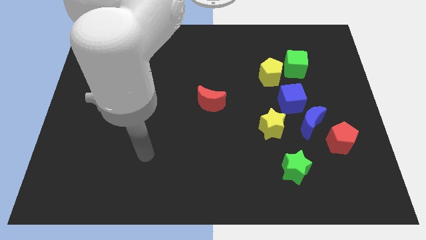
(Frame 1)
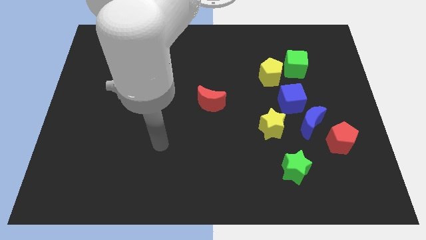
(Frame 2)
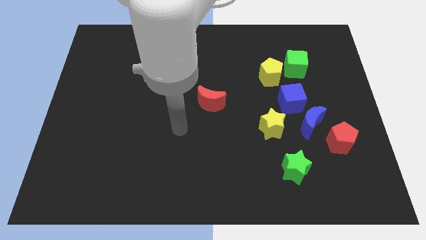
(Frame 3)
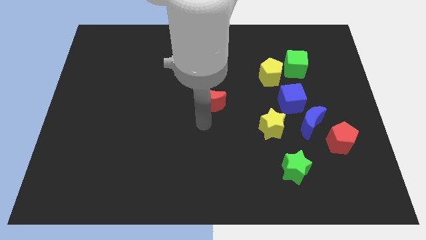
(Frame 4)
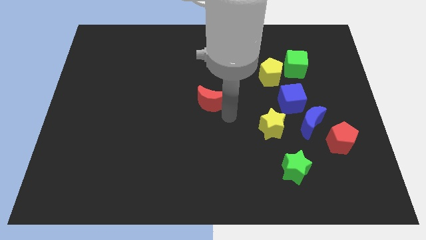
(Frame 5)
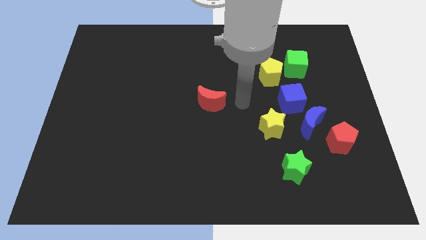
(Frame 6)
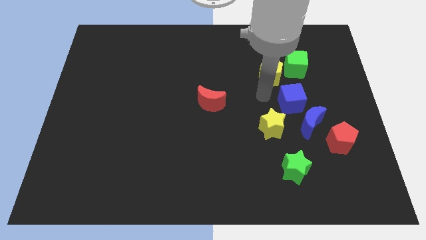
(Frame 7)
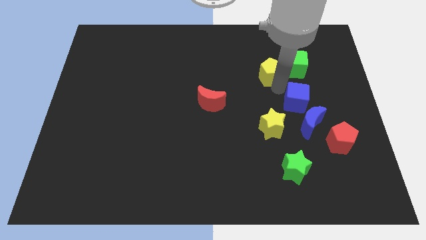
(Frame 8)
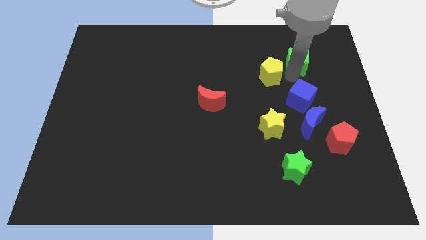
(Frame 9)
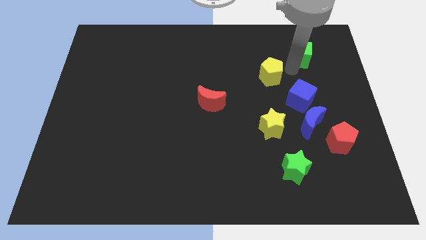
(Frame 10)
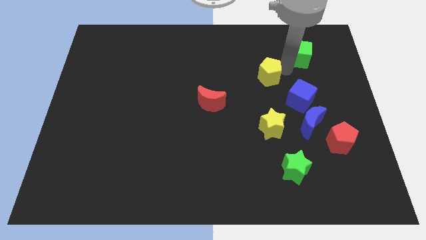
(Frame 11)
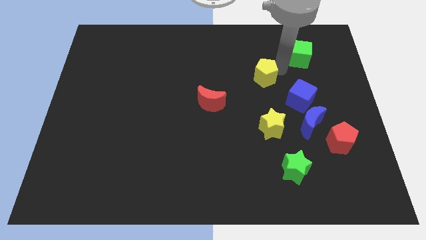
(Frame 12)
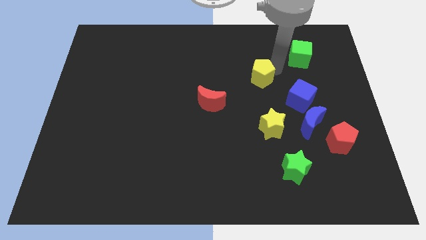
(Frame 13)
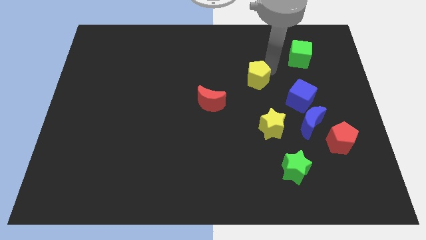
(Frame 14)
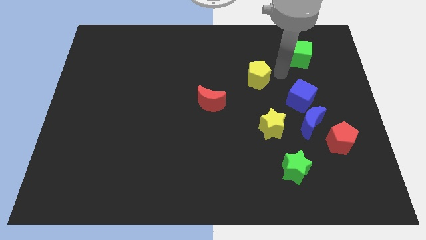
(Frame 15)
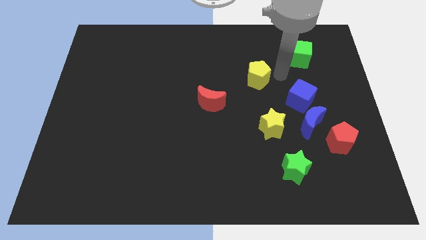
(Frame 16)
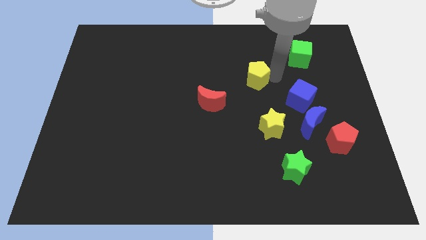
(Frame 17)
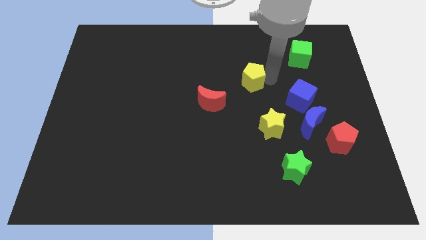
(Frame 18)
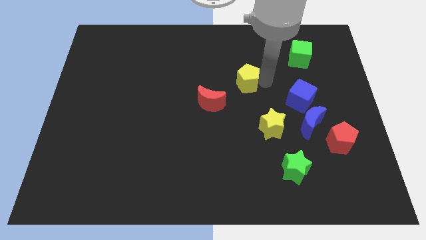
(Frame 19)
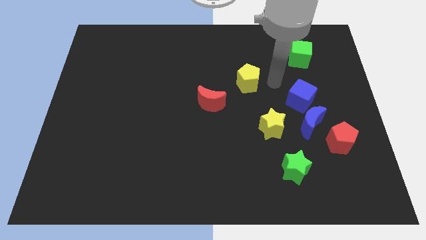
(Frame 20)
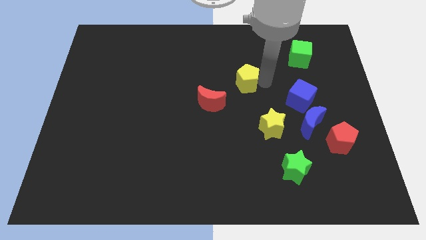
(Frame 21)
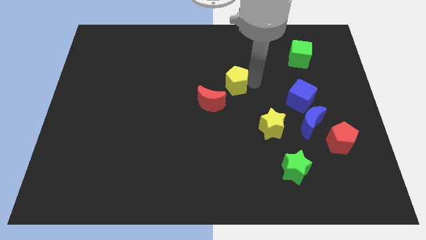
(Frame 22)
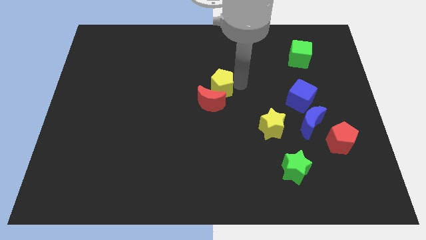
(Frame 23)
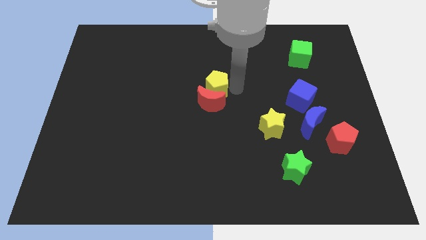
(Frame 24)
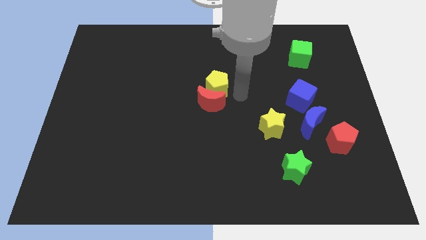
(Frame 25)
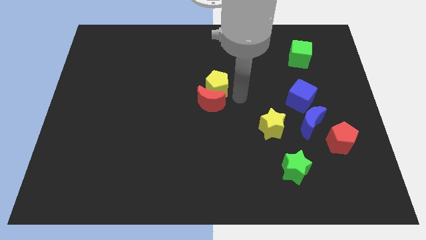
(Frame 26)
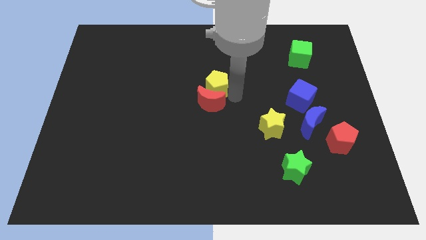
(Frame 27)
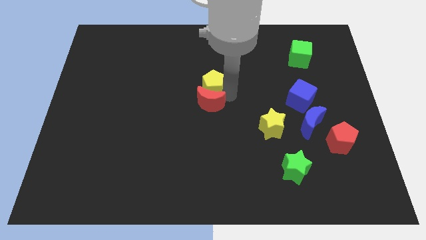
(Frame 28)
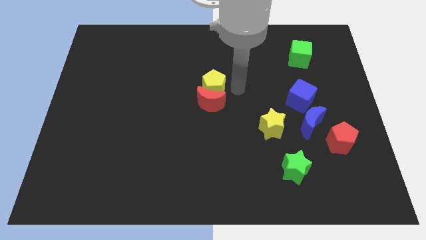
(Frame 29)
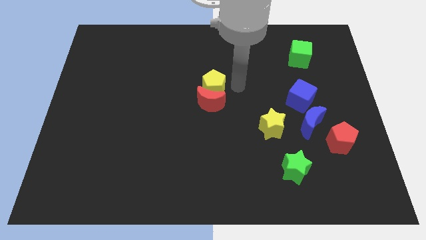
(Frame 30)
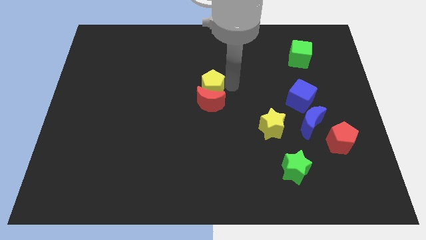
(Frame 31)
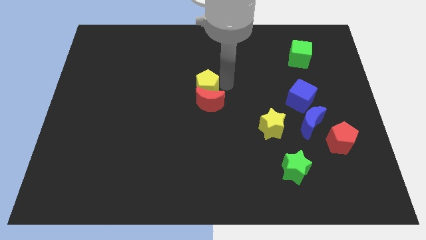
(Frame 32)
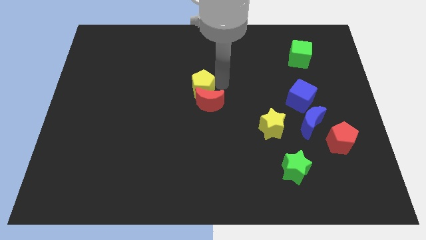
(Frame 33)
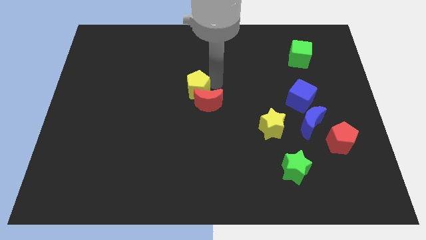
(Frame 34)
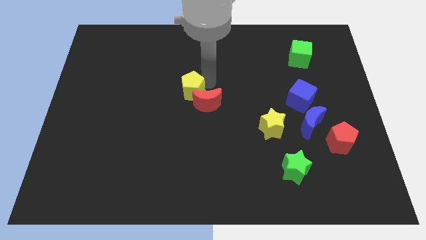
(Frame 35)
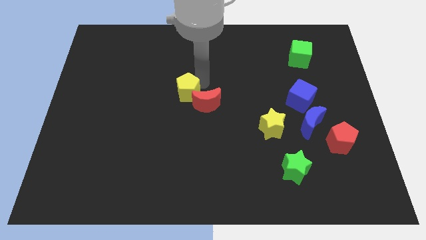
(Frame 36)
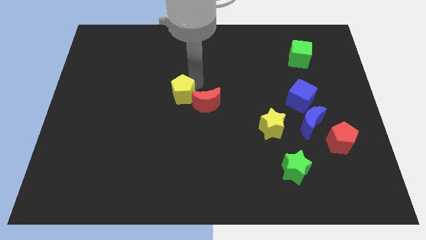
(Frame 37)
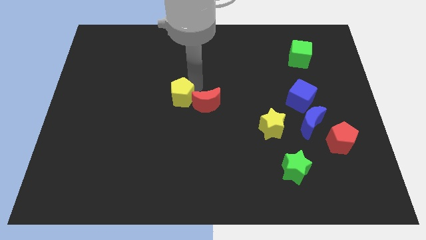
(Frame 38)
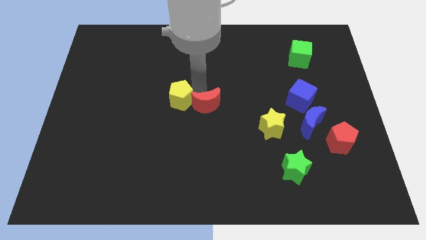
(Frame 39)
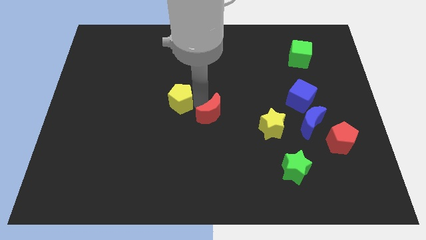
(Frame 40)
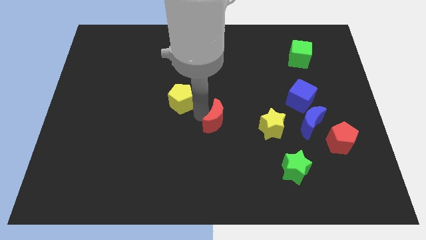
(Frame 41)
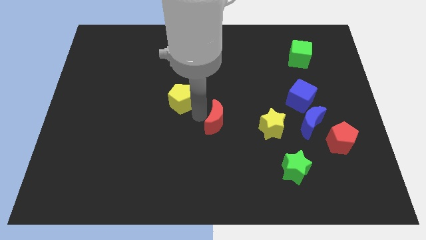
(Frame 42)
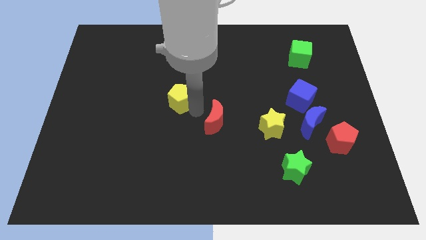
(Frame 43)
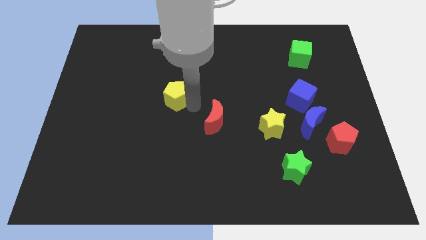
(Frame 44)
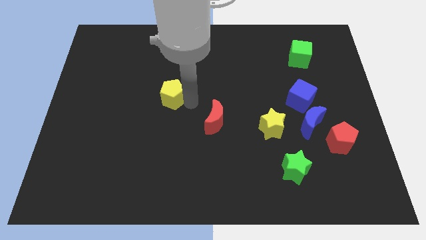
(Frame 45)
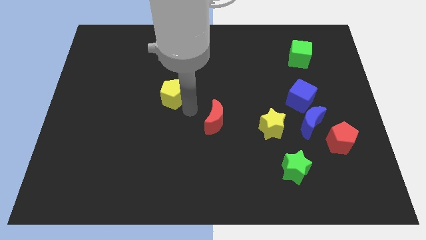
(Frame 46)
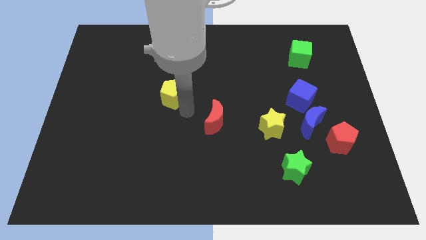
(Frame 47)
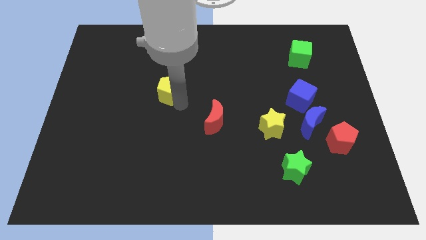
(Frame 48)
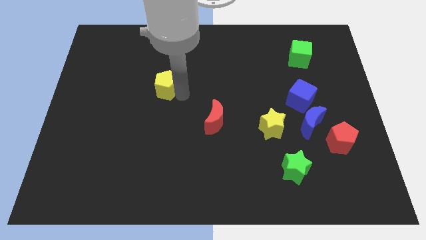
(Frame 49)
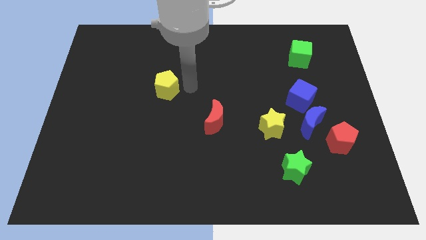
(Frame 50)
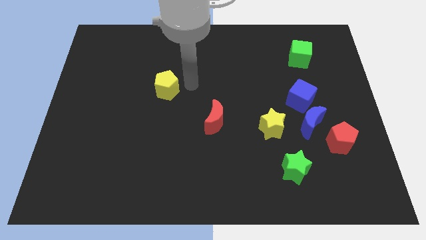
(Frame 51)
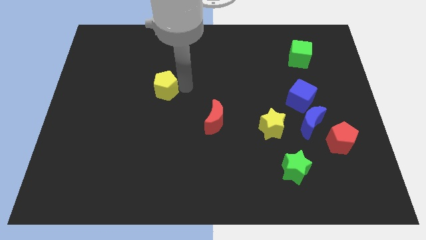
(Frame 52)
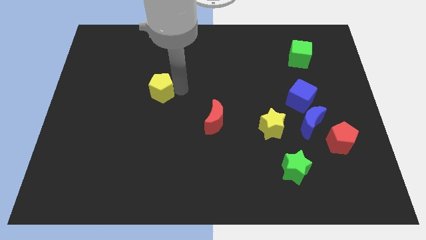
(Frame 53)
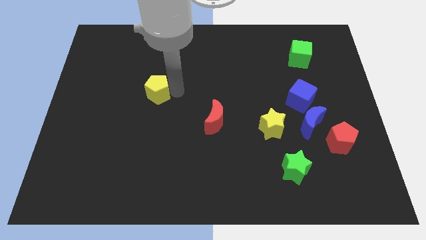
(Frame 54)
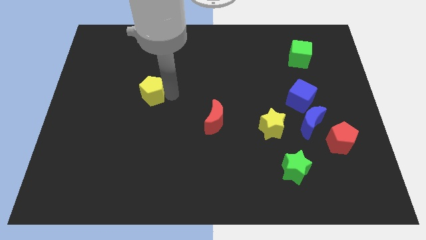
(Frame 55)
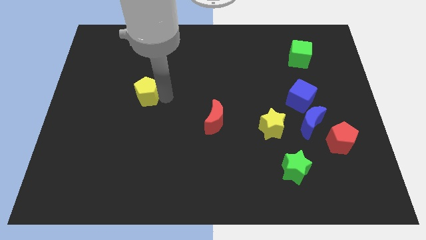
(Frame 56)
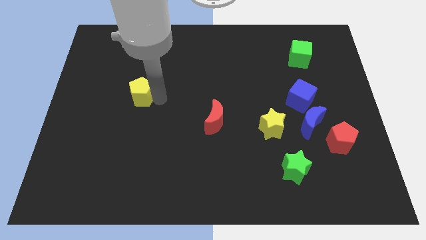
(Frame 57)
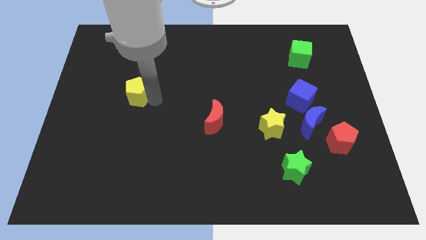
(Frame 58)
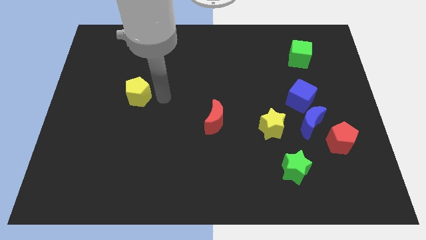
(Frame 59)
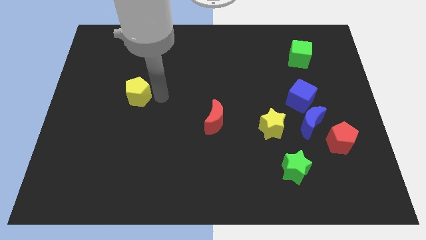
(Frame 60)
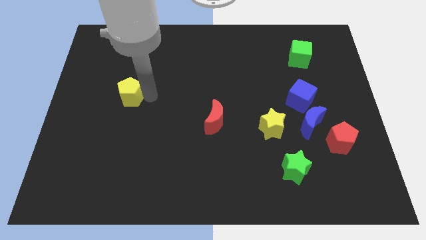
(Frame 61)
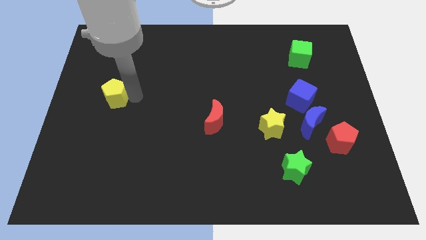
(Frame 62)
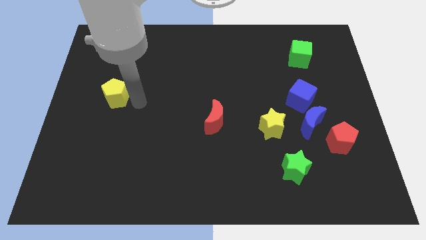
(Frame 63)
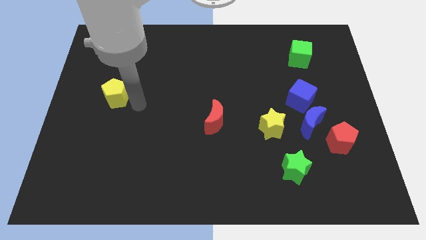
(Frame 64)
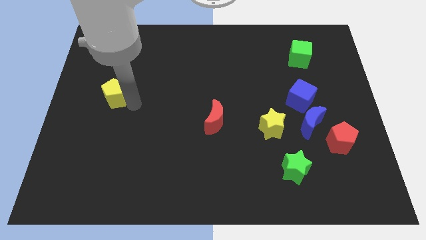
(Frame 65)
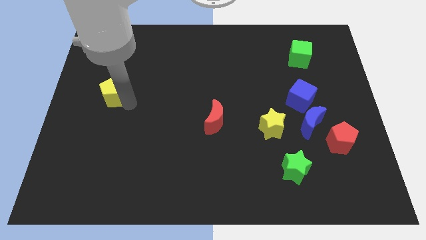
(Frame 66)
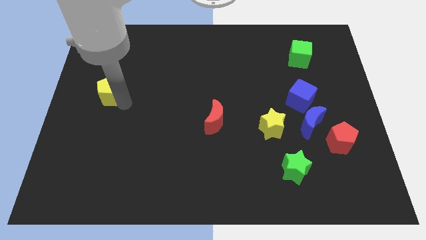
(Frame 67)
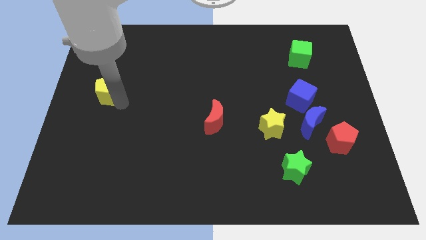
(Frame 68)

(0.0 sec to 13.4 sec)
push the yellow pentagon to the left side
